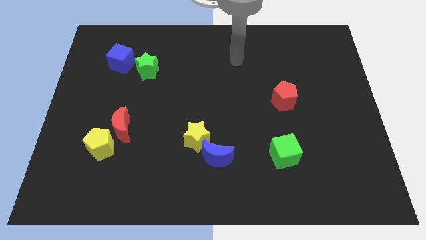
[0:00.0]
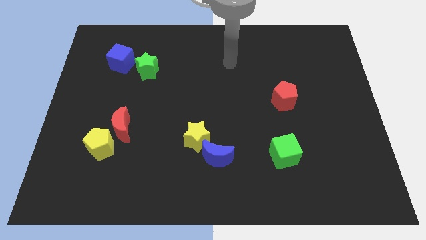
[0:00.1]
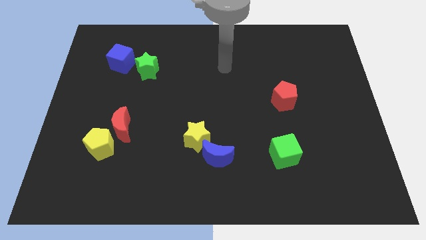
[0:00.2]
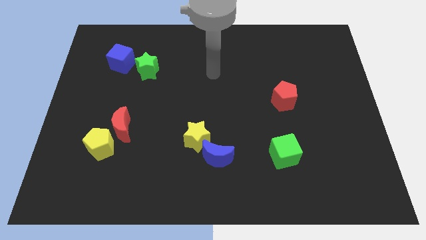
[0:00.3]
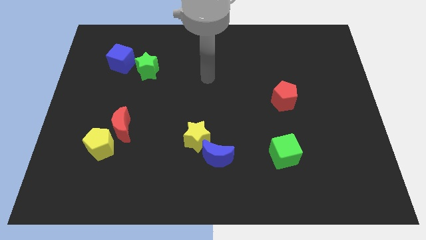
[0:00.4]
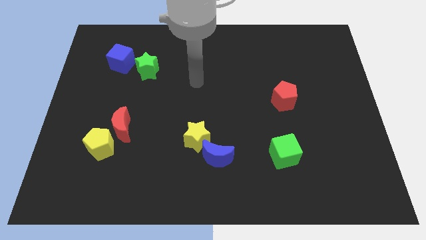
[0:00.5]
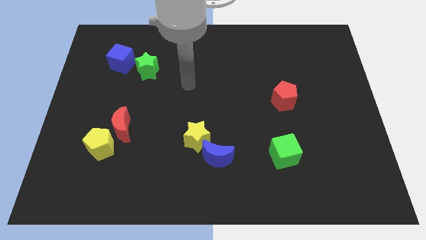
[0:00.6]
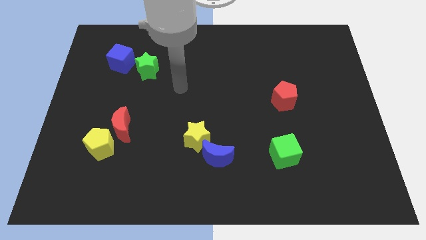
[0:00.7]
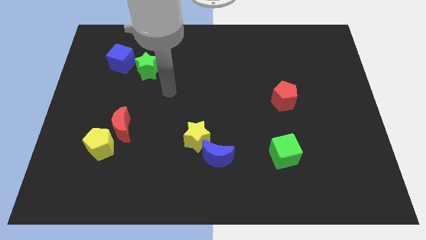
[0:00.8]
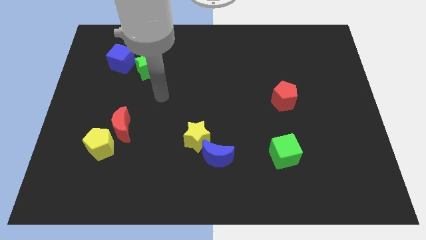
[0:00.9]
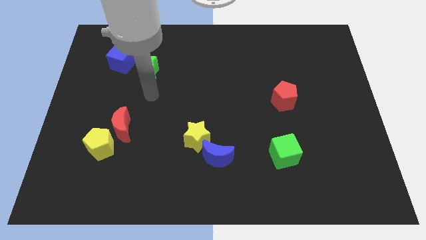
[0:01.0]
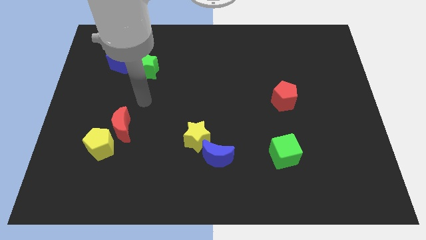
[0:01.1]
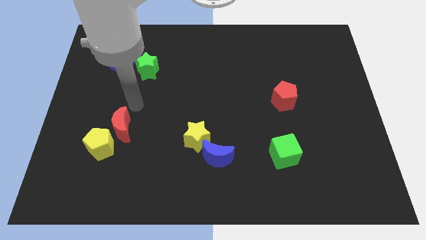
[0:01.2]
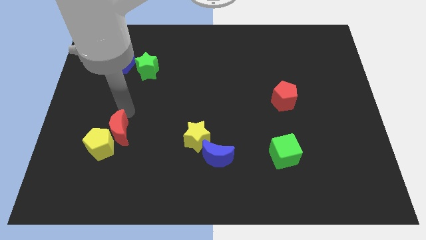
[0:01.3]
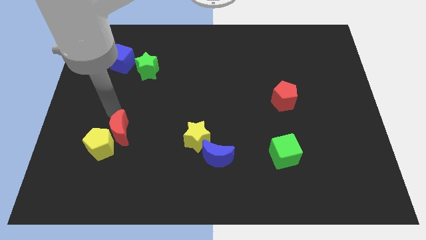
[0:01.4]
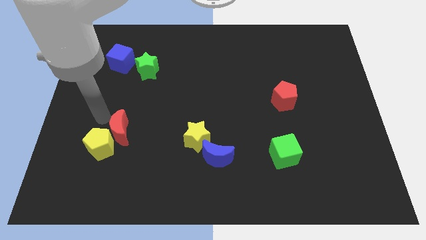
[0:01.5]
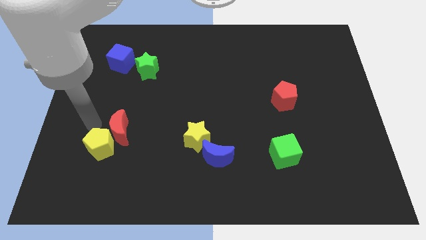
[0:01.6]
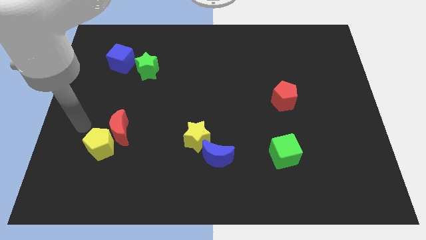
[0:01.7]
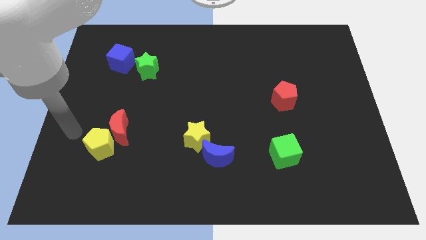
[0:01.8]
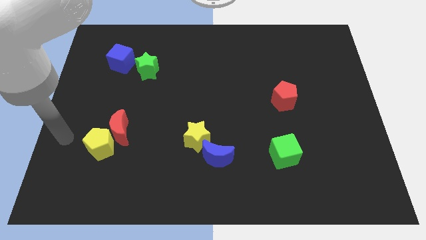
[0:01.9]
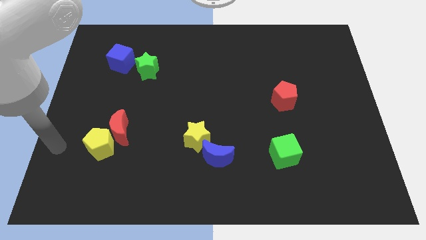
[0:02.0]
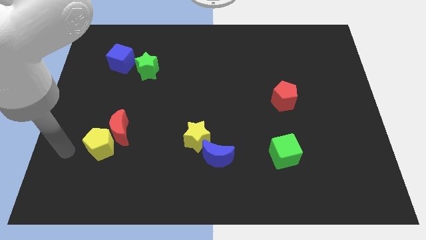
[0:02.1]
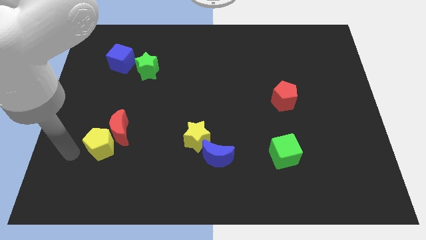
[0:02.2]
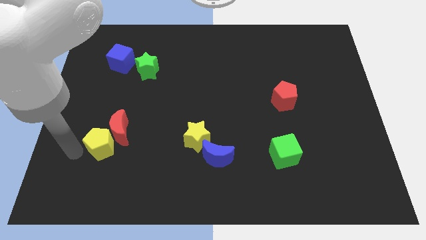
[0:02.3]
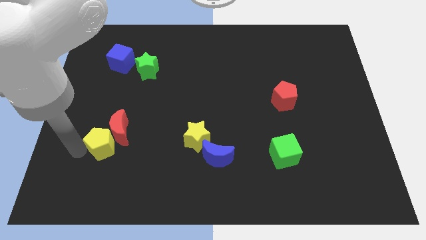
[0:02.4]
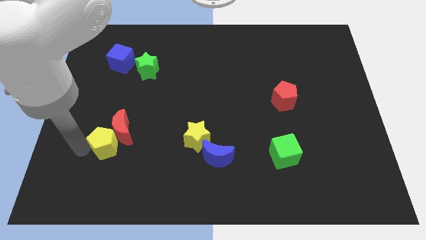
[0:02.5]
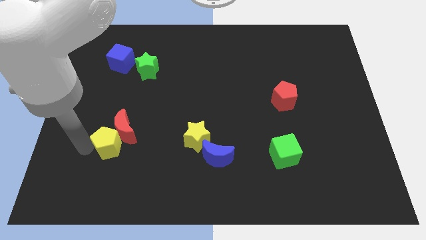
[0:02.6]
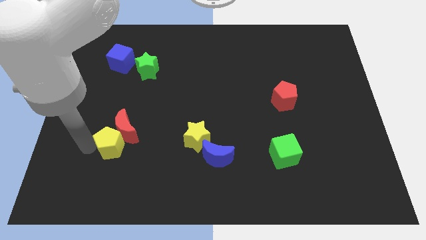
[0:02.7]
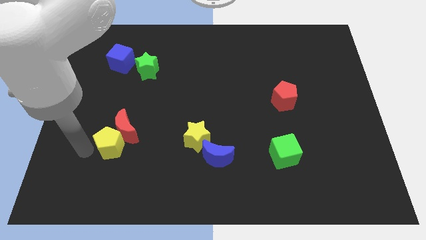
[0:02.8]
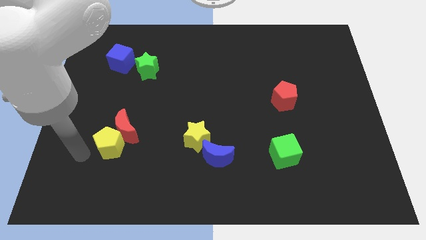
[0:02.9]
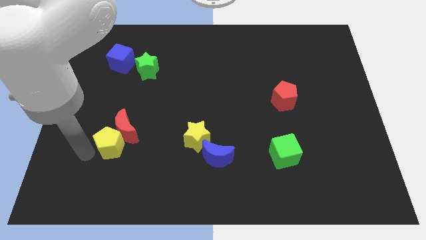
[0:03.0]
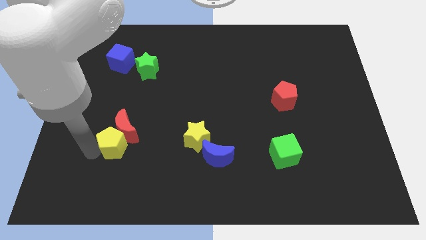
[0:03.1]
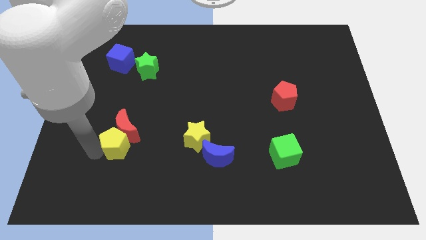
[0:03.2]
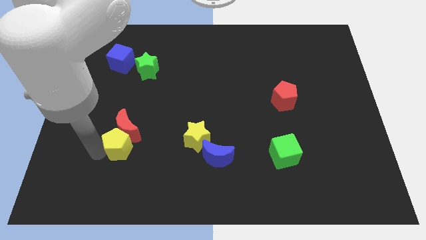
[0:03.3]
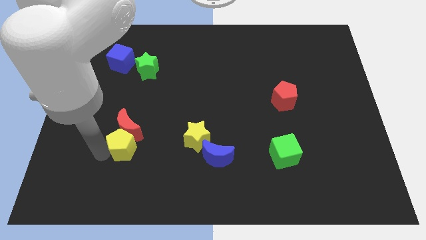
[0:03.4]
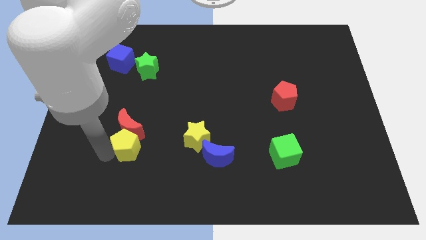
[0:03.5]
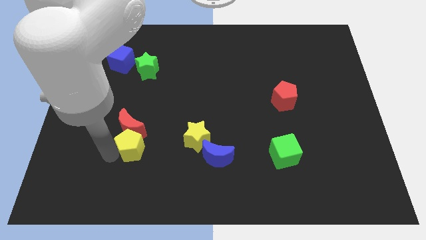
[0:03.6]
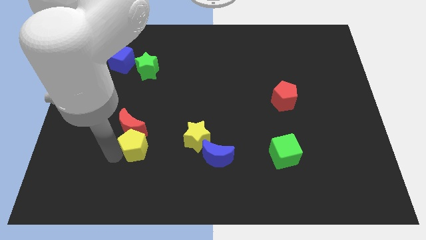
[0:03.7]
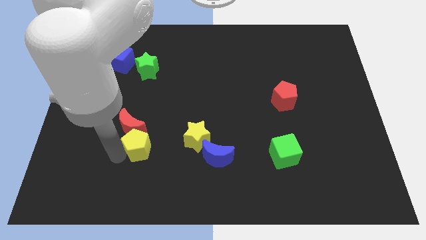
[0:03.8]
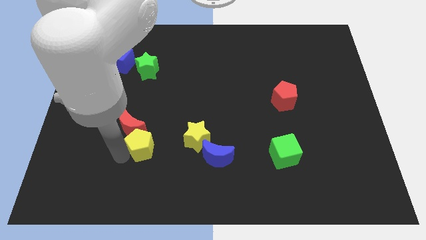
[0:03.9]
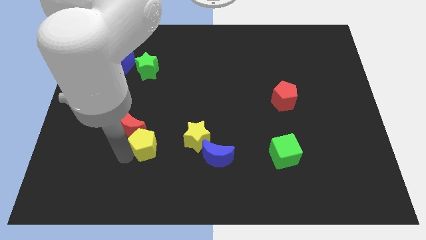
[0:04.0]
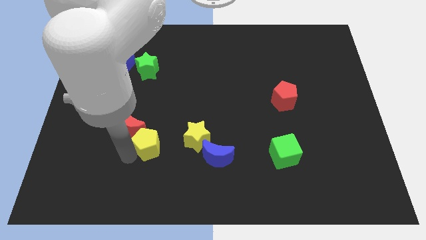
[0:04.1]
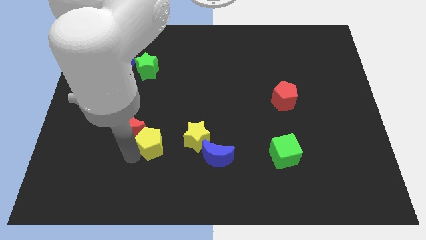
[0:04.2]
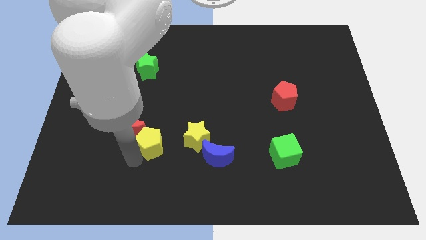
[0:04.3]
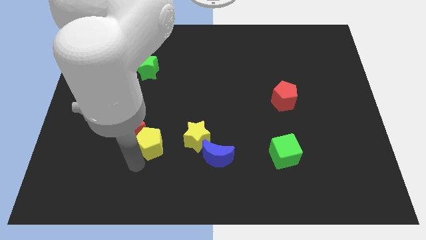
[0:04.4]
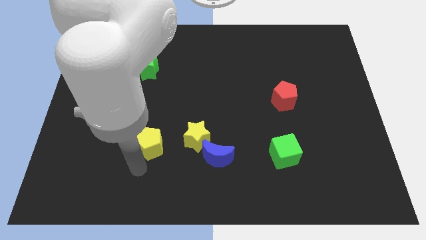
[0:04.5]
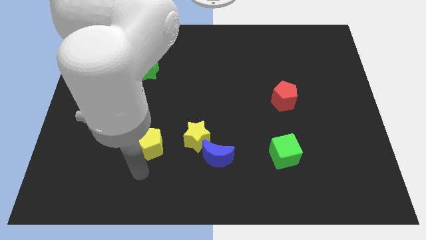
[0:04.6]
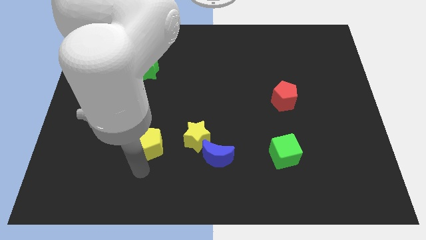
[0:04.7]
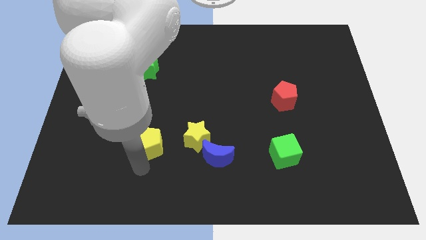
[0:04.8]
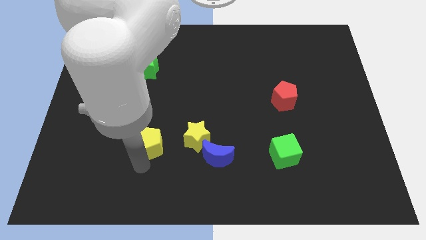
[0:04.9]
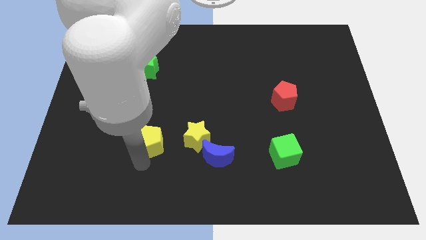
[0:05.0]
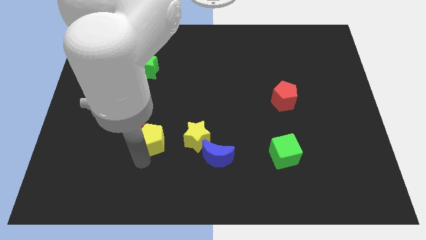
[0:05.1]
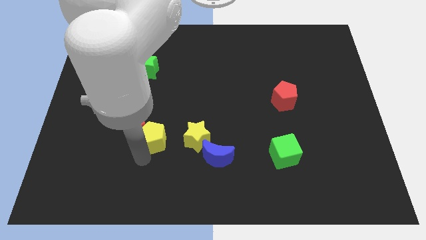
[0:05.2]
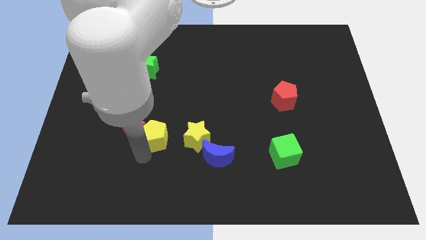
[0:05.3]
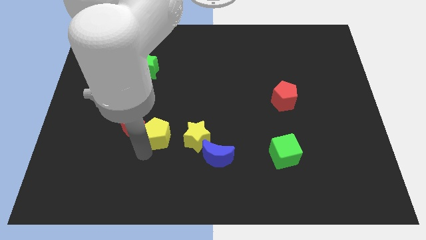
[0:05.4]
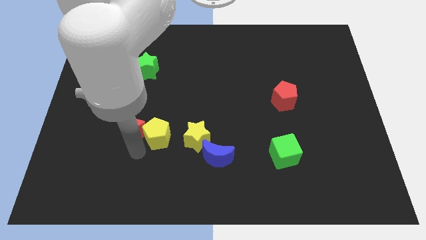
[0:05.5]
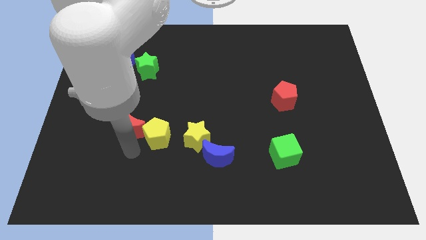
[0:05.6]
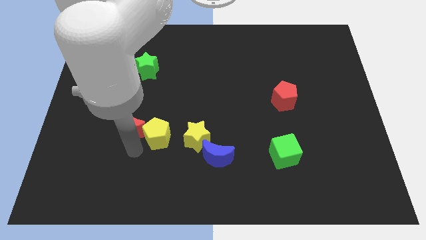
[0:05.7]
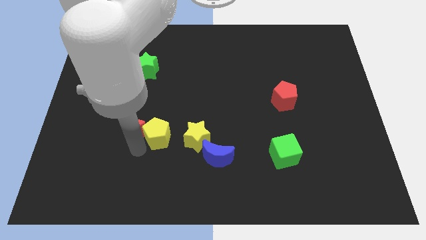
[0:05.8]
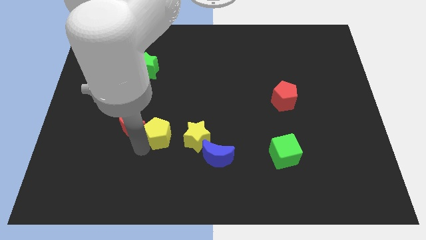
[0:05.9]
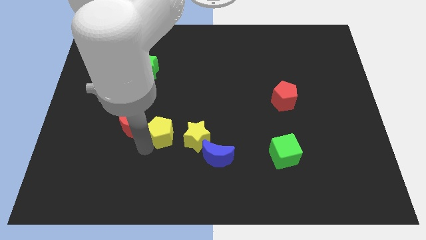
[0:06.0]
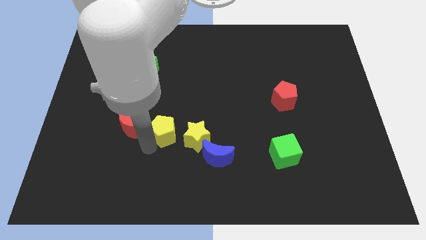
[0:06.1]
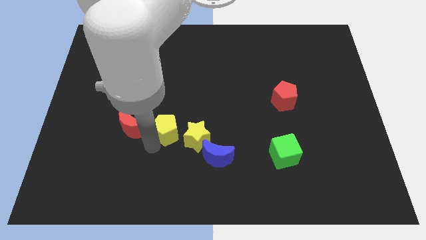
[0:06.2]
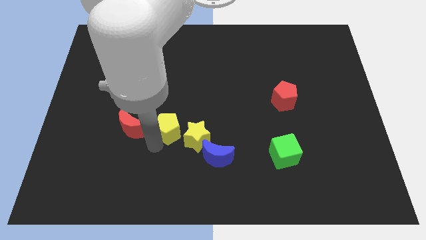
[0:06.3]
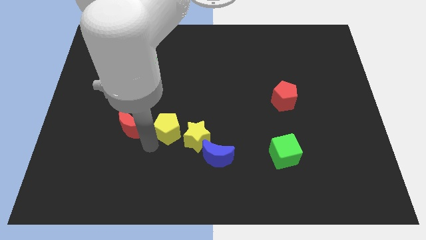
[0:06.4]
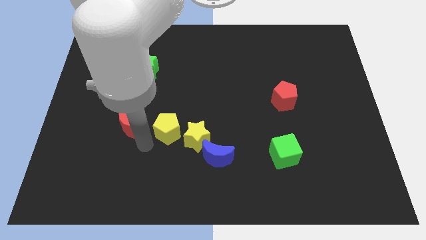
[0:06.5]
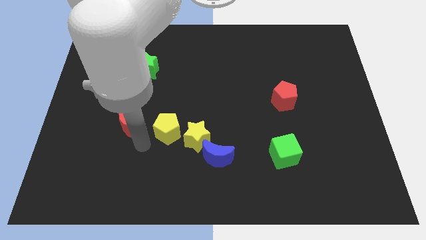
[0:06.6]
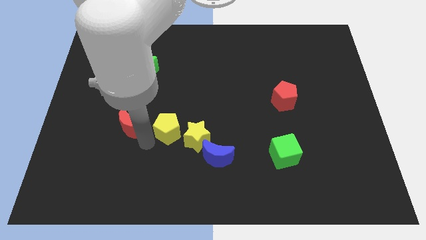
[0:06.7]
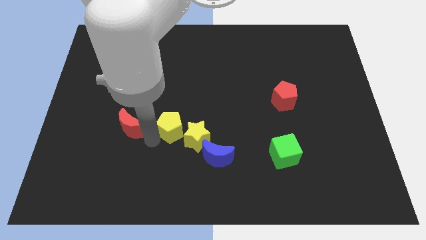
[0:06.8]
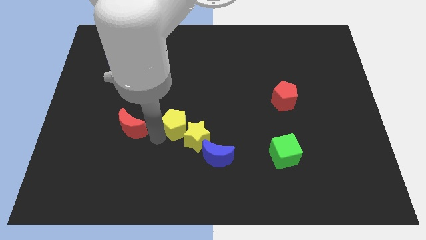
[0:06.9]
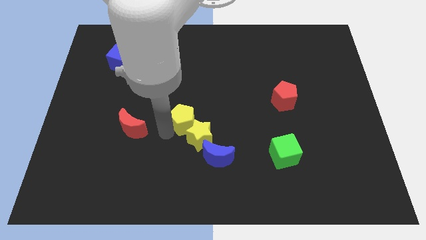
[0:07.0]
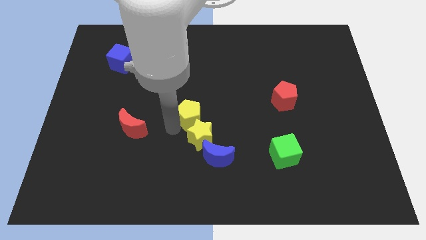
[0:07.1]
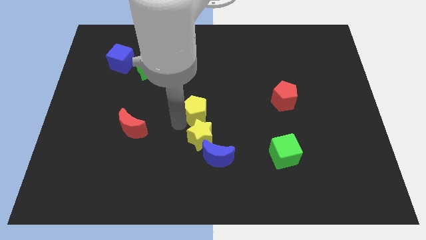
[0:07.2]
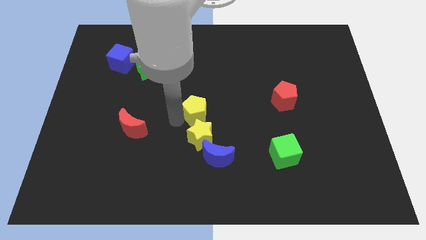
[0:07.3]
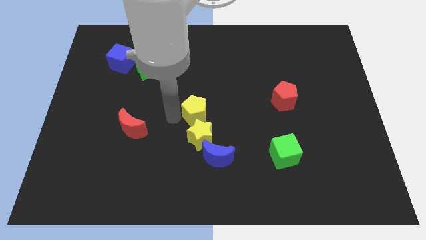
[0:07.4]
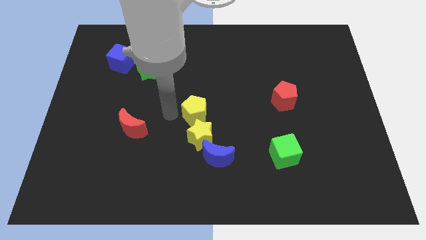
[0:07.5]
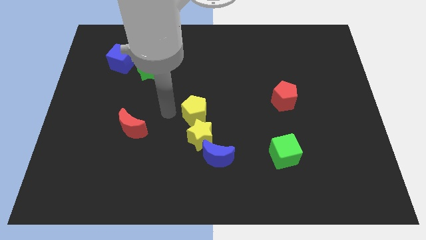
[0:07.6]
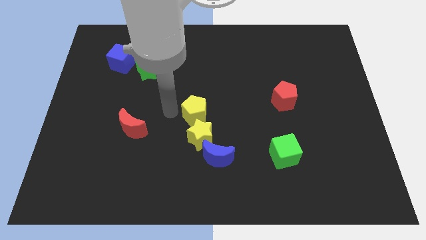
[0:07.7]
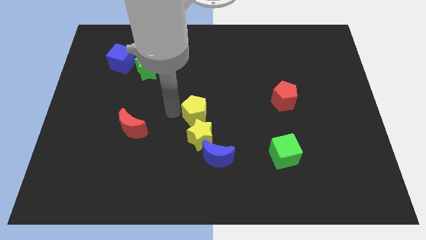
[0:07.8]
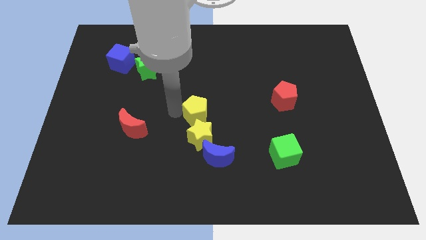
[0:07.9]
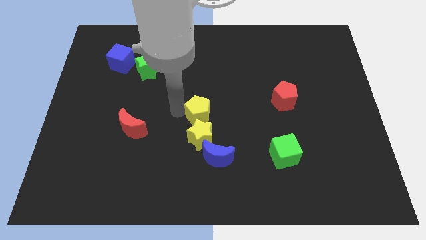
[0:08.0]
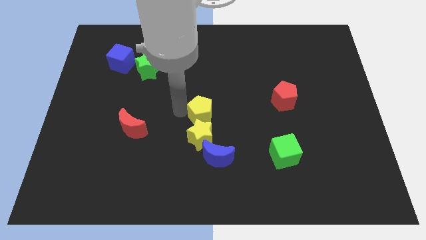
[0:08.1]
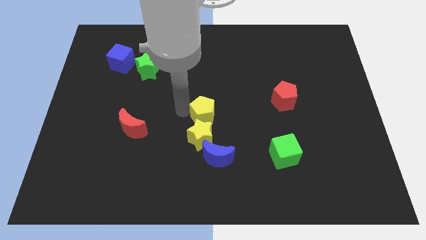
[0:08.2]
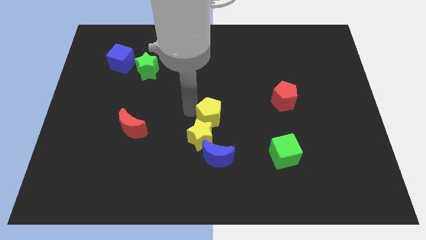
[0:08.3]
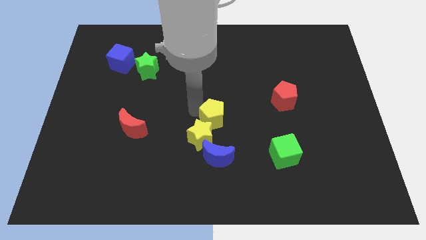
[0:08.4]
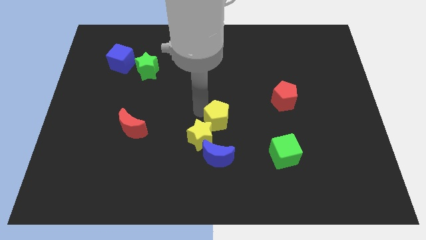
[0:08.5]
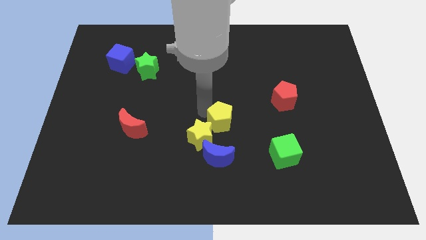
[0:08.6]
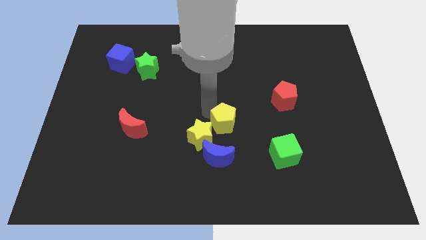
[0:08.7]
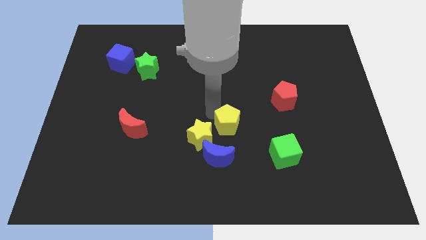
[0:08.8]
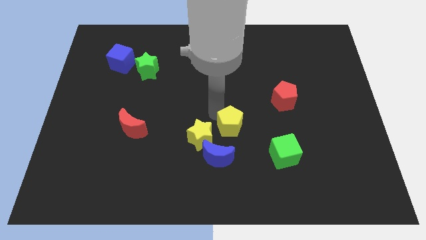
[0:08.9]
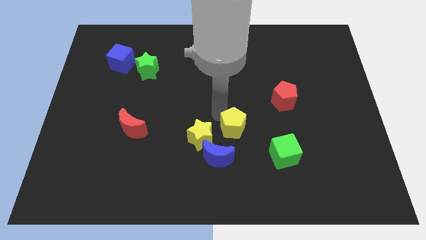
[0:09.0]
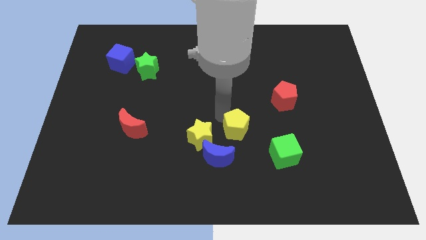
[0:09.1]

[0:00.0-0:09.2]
move the yellow pentagon to the top left of the green cube
